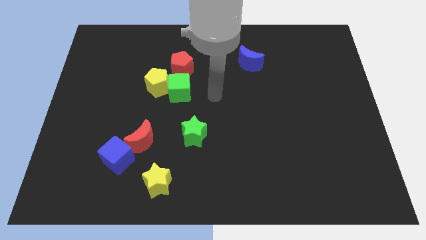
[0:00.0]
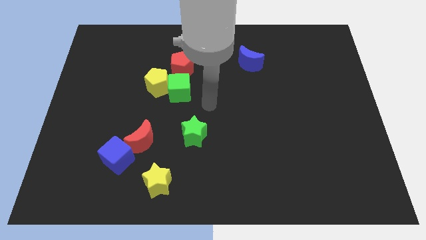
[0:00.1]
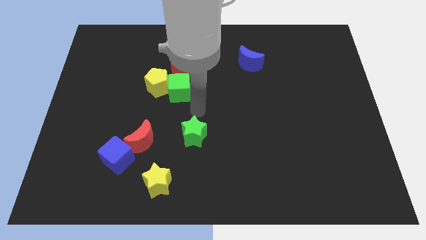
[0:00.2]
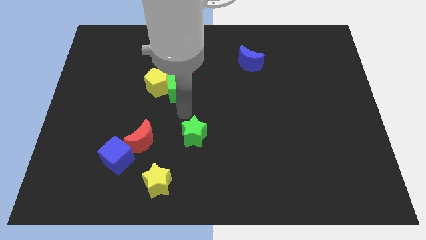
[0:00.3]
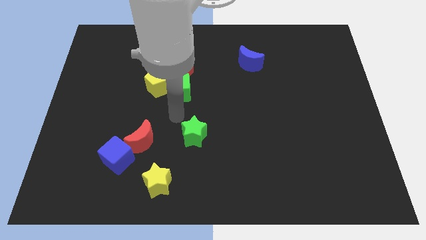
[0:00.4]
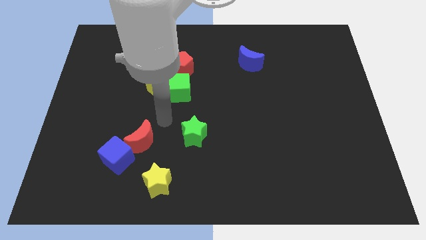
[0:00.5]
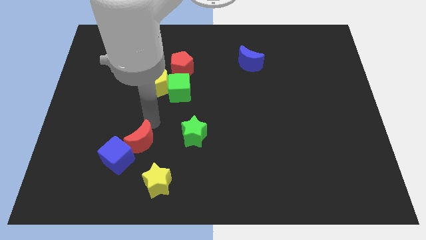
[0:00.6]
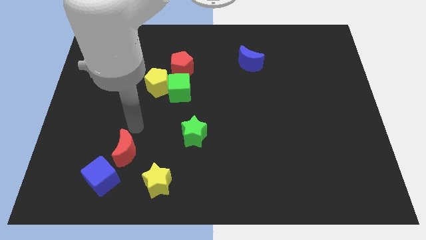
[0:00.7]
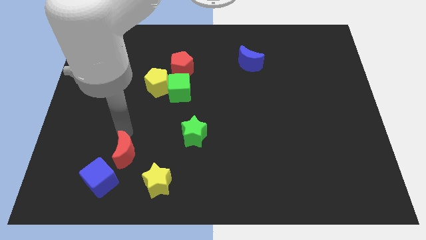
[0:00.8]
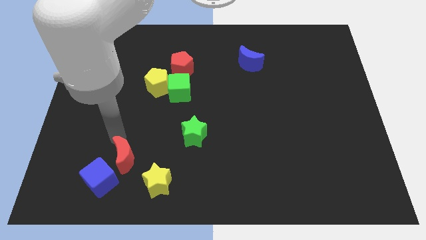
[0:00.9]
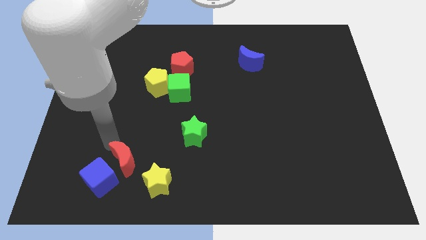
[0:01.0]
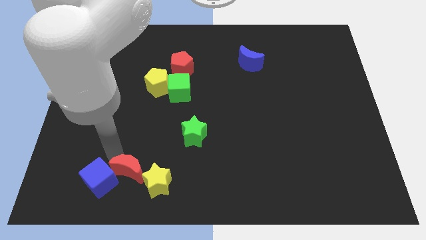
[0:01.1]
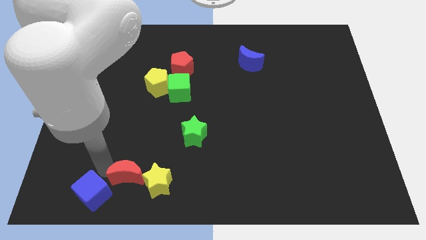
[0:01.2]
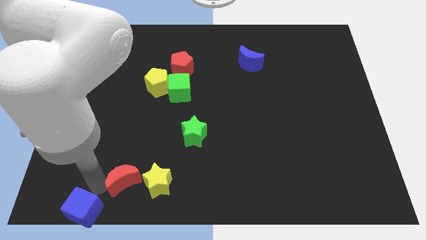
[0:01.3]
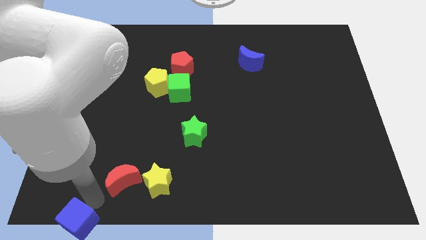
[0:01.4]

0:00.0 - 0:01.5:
pull the red moon apart from the blue cube

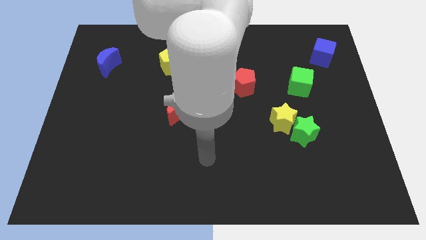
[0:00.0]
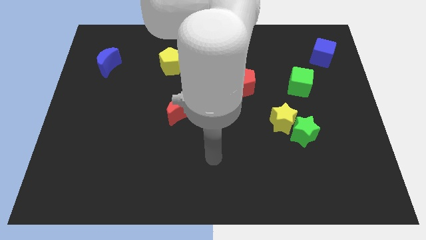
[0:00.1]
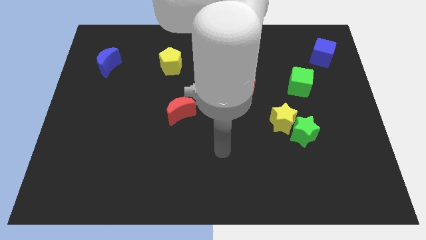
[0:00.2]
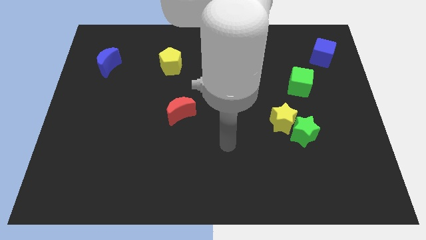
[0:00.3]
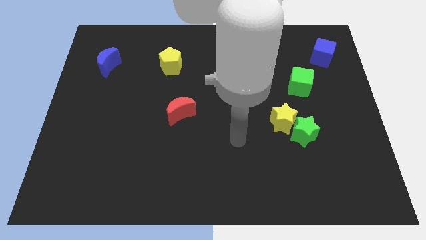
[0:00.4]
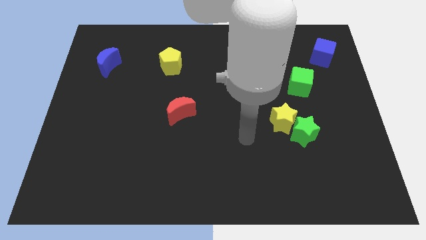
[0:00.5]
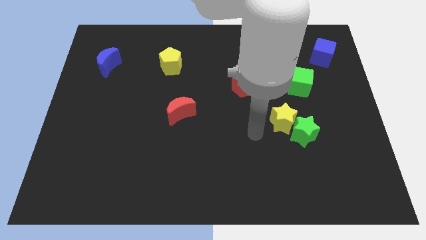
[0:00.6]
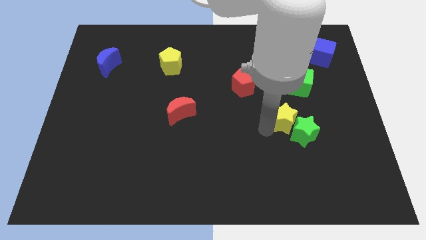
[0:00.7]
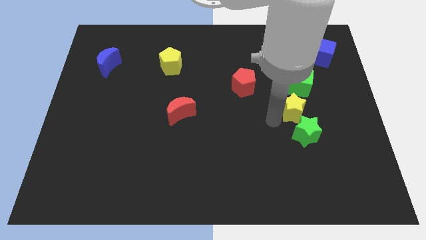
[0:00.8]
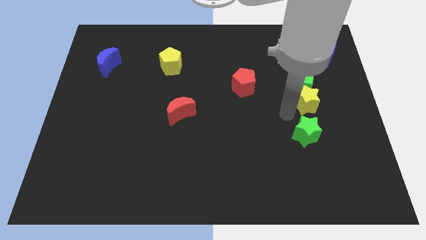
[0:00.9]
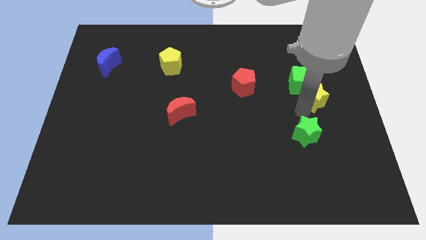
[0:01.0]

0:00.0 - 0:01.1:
pull the green star apart from the yellow star

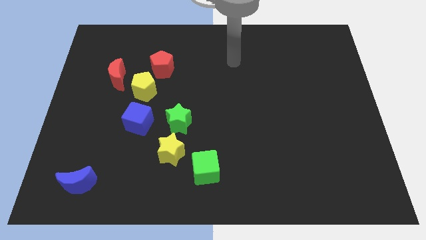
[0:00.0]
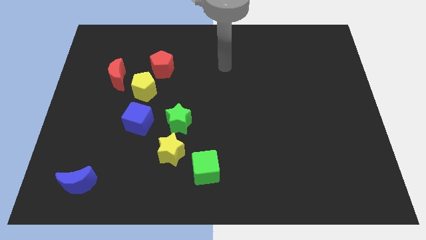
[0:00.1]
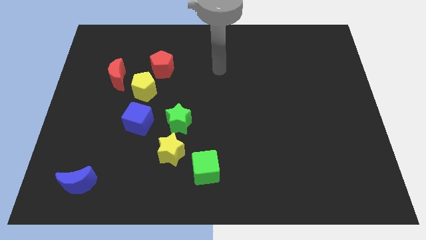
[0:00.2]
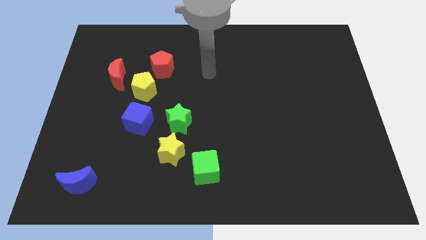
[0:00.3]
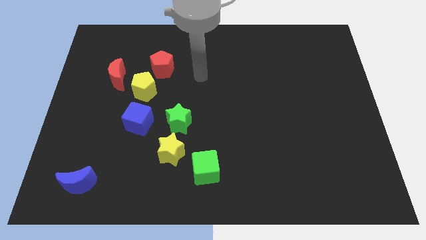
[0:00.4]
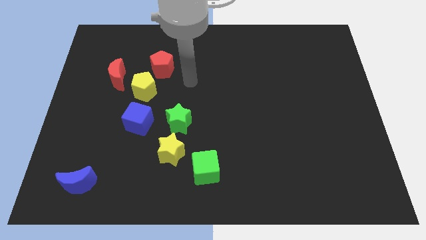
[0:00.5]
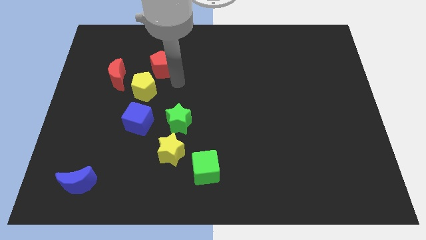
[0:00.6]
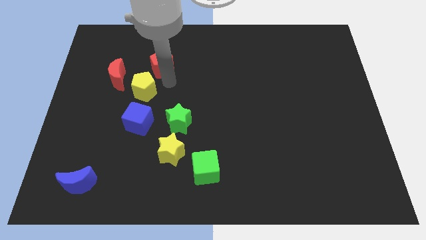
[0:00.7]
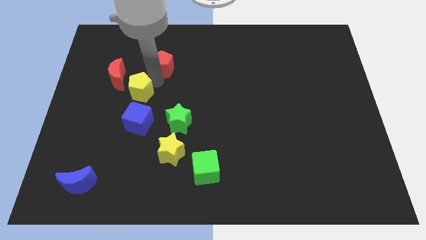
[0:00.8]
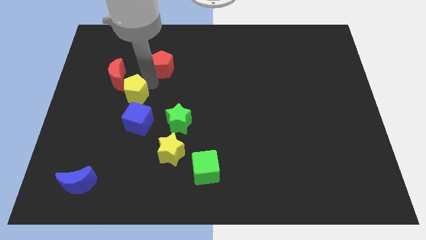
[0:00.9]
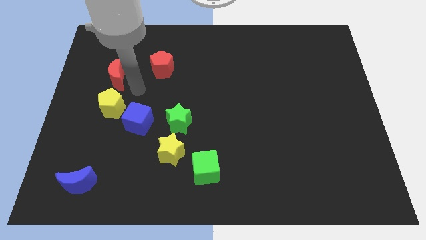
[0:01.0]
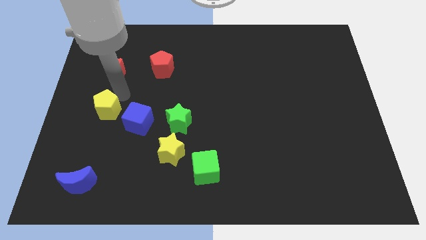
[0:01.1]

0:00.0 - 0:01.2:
pull the red moon apart from the yellow pentagon

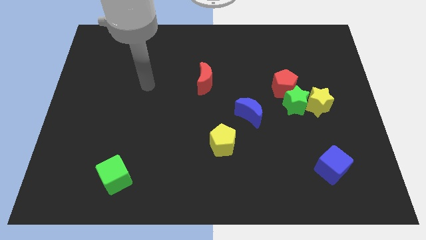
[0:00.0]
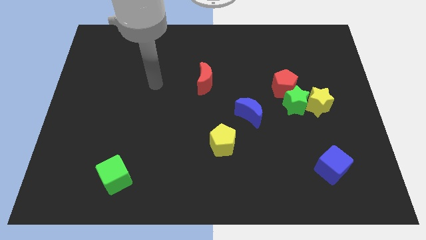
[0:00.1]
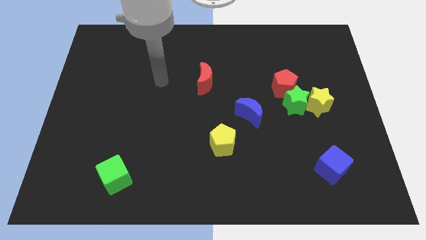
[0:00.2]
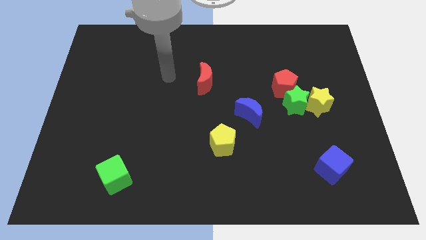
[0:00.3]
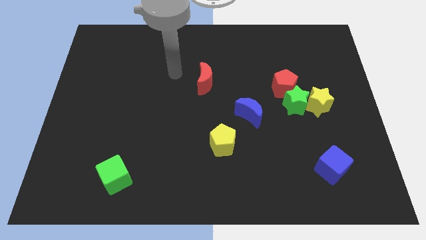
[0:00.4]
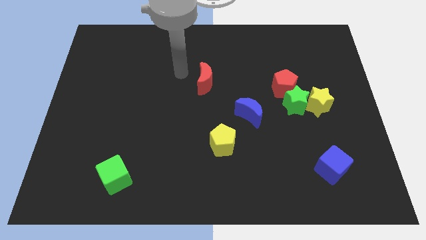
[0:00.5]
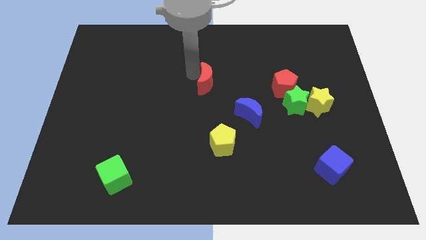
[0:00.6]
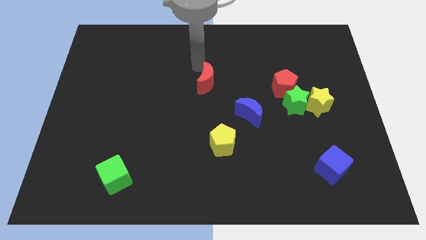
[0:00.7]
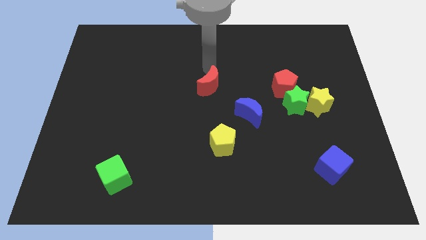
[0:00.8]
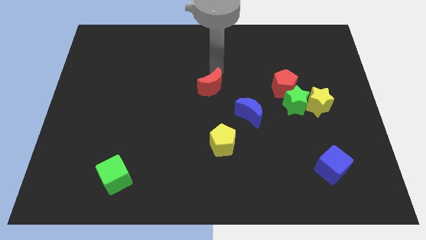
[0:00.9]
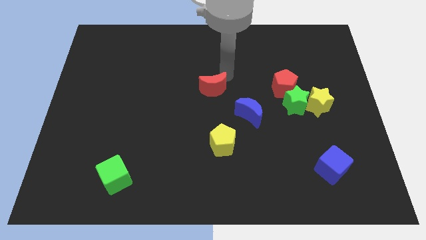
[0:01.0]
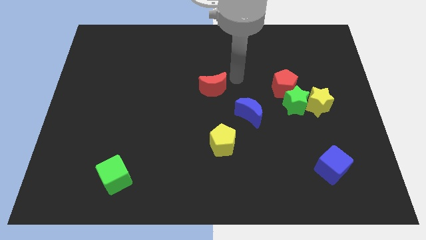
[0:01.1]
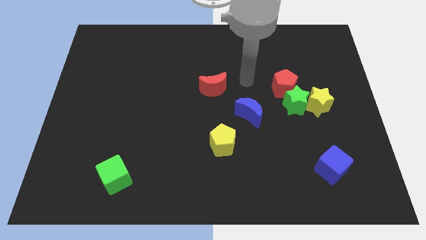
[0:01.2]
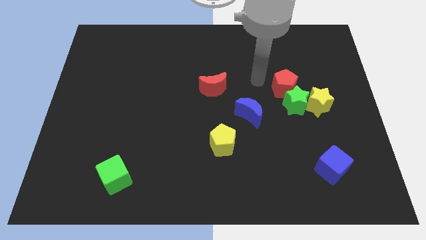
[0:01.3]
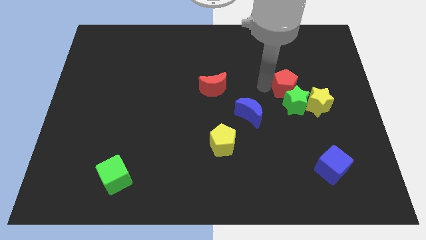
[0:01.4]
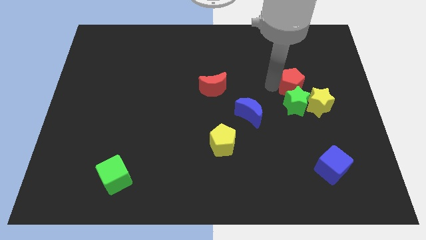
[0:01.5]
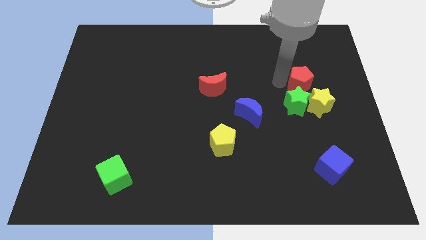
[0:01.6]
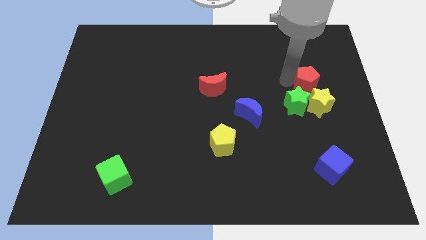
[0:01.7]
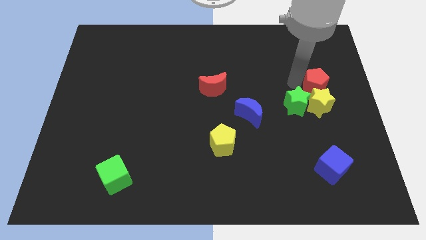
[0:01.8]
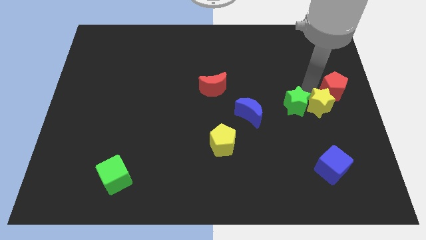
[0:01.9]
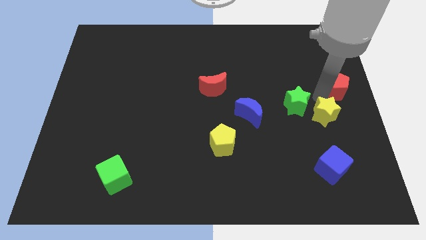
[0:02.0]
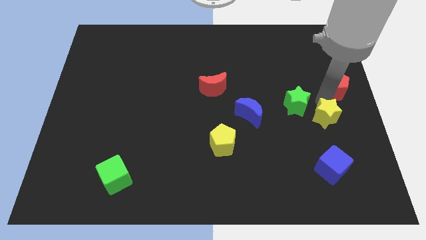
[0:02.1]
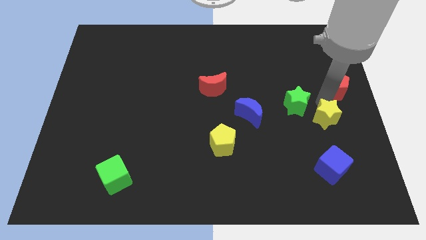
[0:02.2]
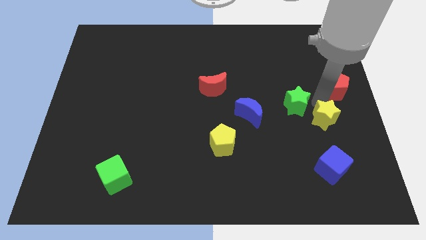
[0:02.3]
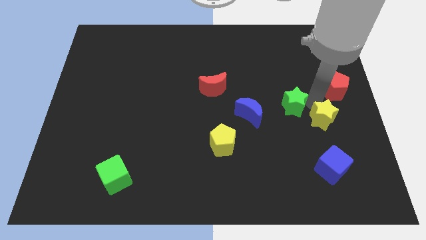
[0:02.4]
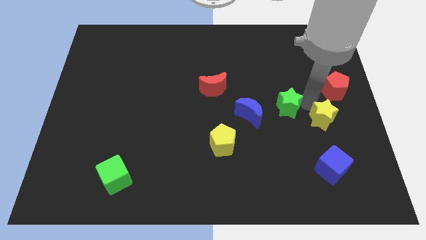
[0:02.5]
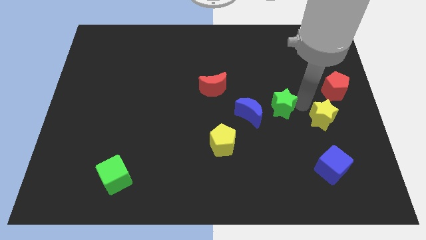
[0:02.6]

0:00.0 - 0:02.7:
separate the green star from the yellow star and red pentagon

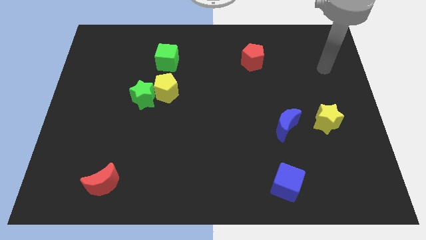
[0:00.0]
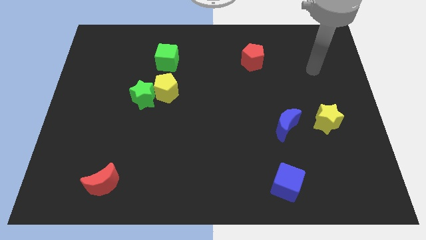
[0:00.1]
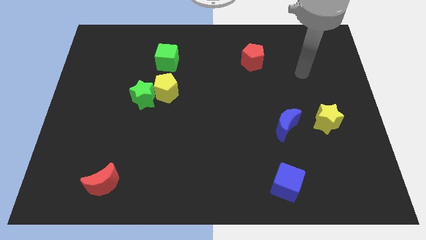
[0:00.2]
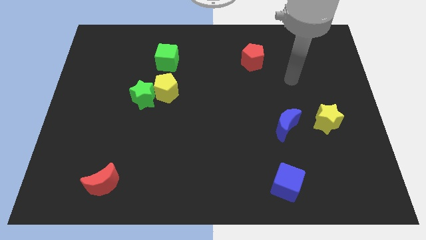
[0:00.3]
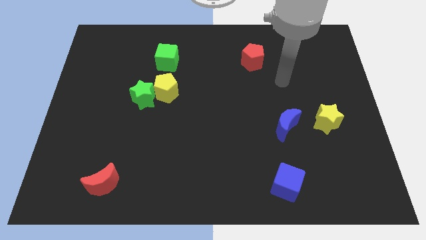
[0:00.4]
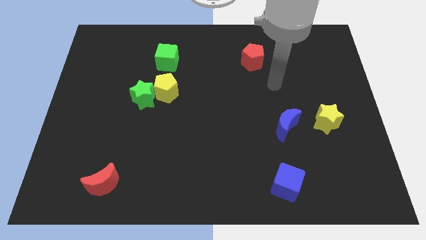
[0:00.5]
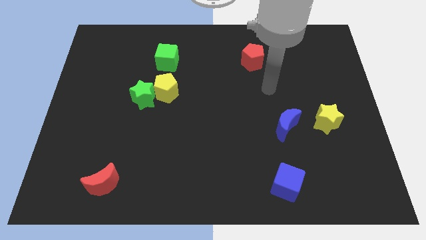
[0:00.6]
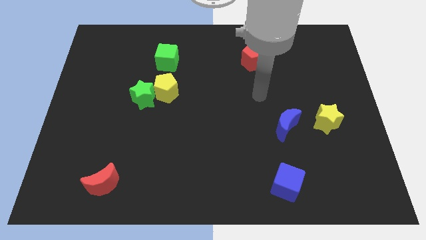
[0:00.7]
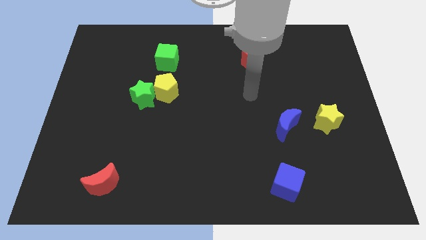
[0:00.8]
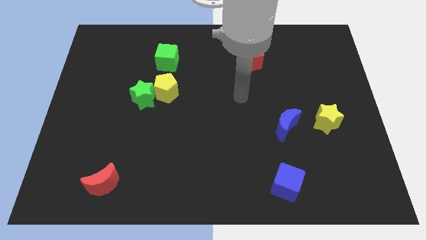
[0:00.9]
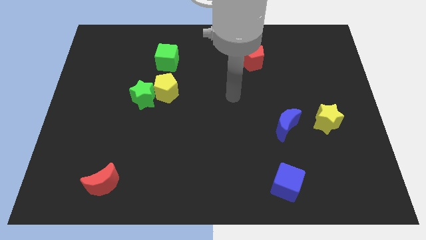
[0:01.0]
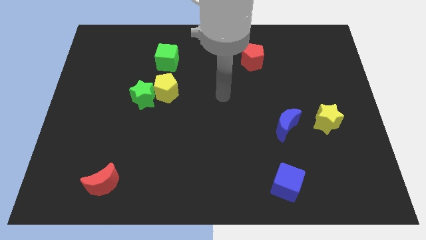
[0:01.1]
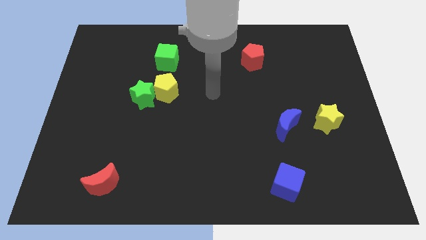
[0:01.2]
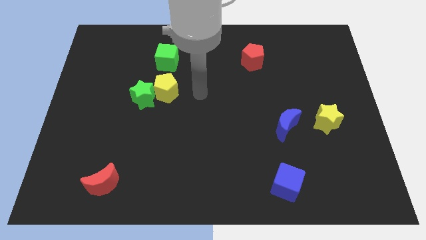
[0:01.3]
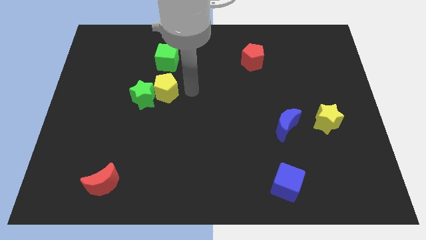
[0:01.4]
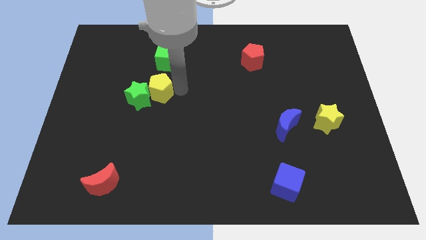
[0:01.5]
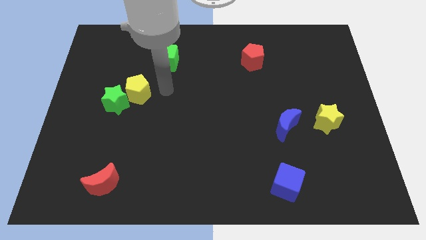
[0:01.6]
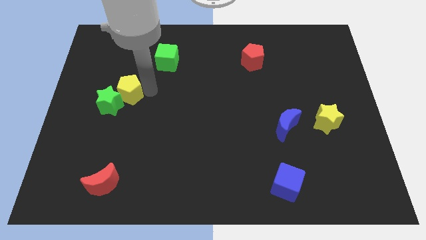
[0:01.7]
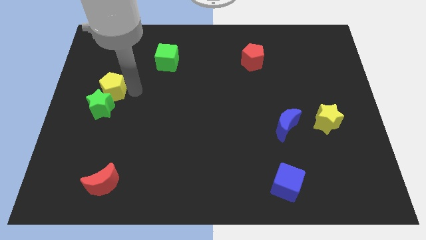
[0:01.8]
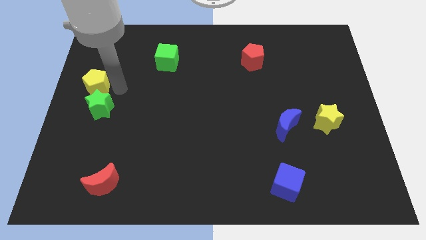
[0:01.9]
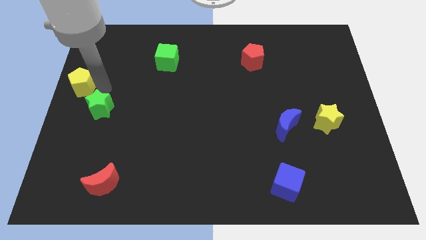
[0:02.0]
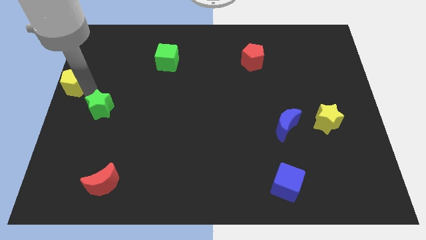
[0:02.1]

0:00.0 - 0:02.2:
pull the green star apart from the yellow pentagon

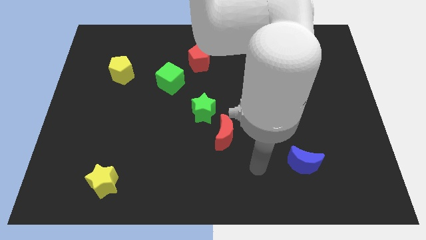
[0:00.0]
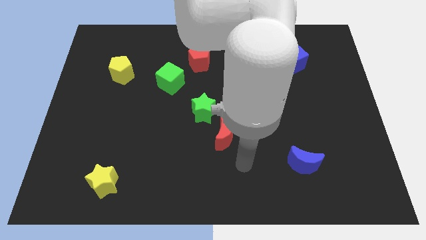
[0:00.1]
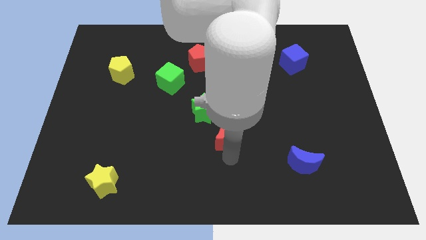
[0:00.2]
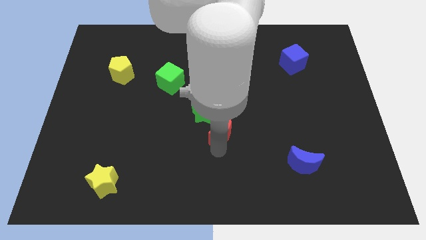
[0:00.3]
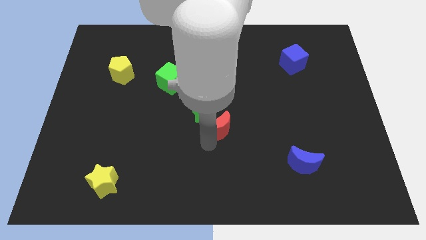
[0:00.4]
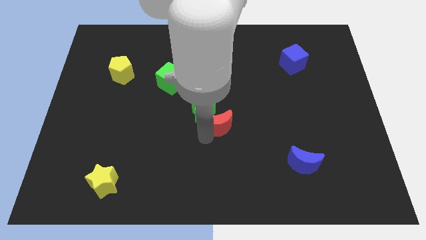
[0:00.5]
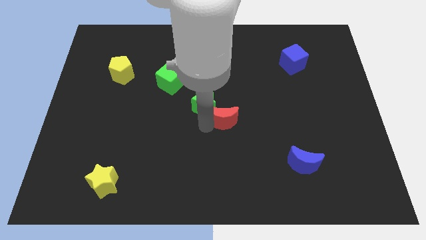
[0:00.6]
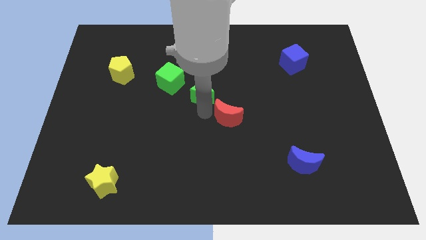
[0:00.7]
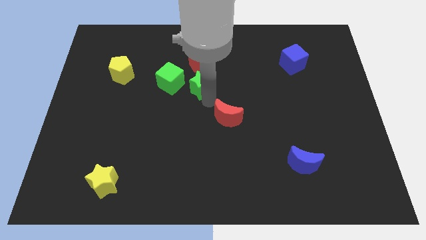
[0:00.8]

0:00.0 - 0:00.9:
move the red moon away from the green star
